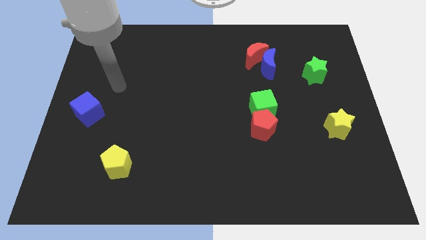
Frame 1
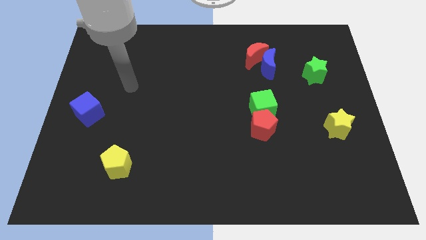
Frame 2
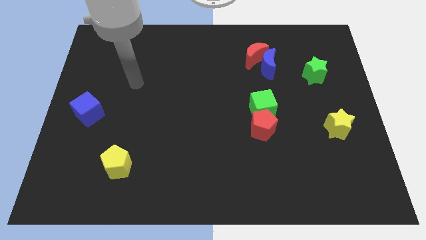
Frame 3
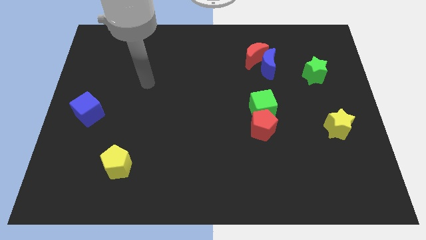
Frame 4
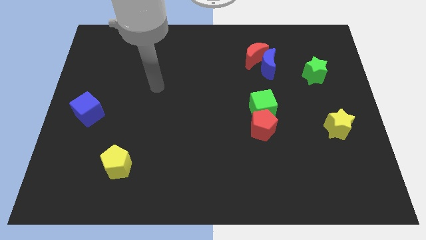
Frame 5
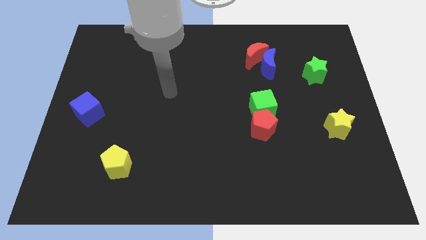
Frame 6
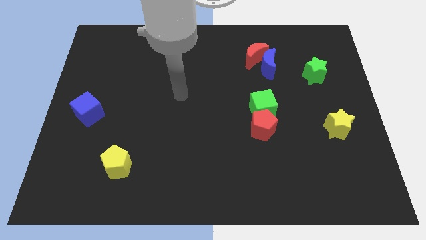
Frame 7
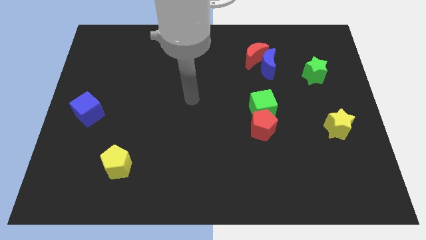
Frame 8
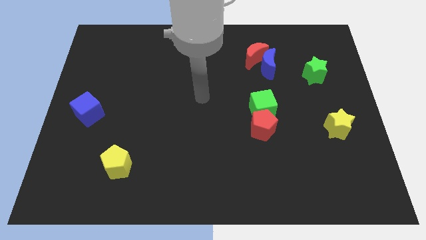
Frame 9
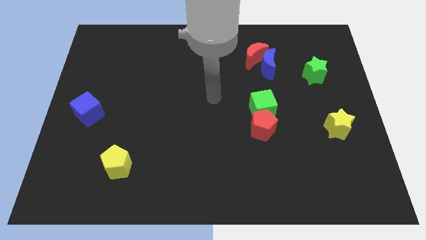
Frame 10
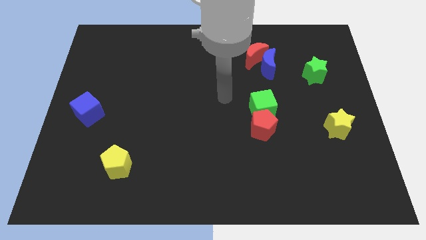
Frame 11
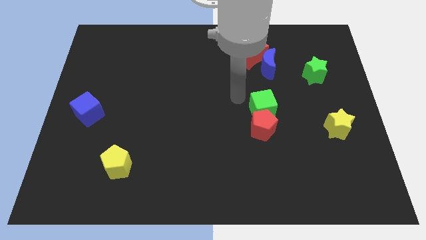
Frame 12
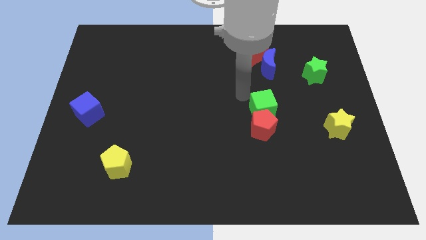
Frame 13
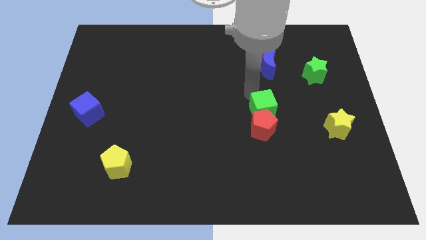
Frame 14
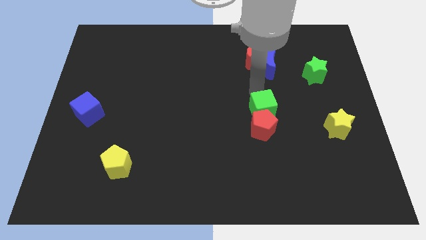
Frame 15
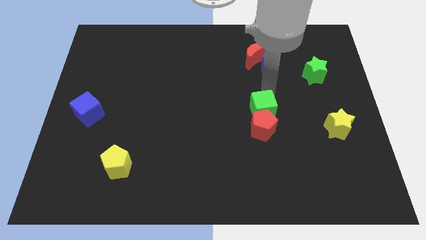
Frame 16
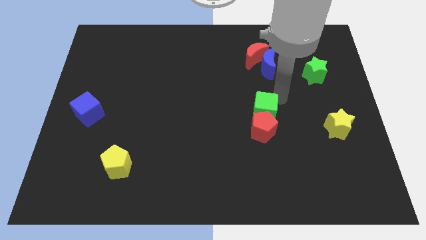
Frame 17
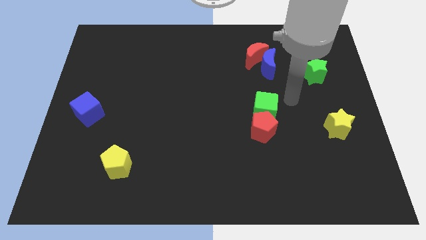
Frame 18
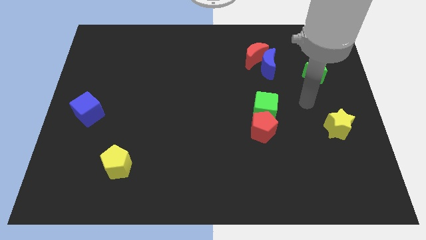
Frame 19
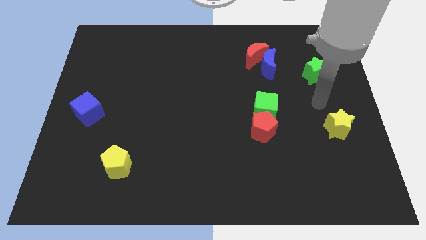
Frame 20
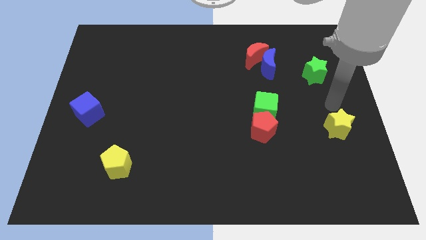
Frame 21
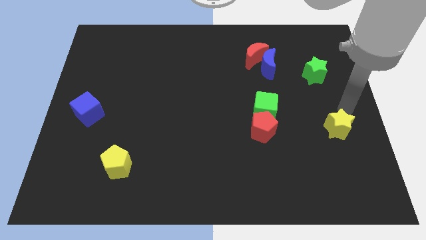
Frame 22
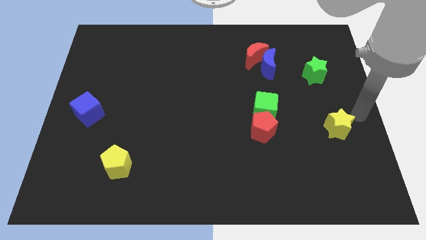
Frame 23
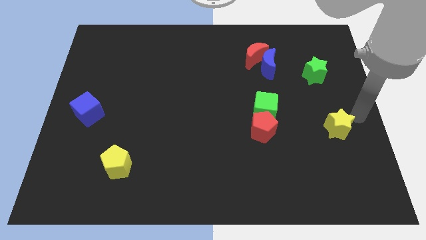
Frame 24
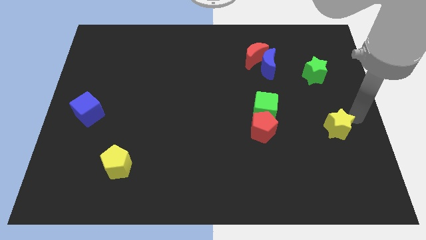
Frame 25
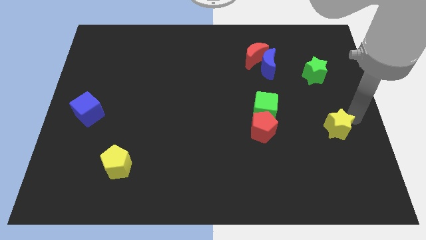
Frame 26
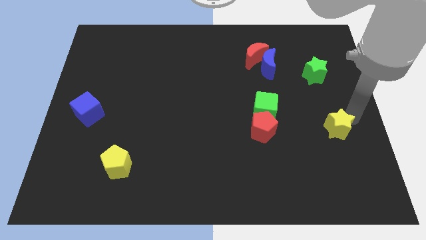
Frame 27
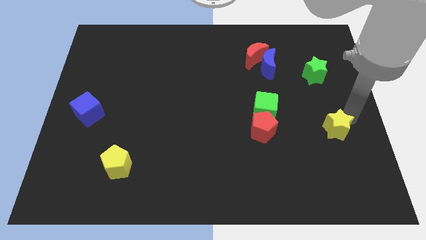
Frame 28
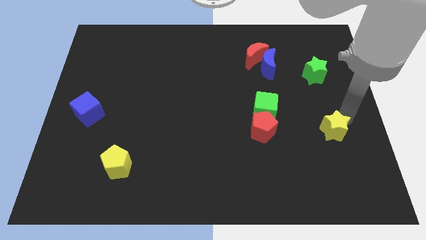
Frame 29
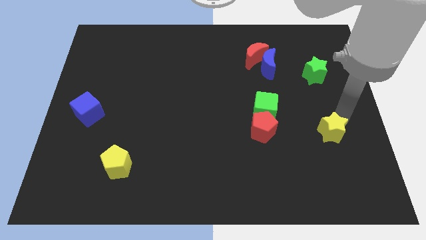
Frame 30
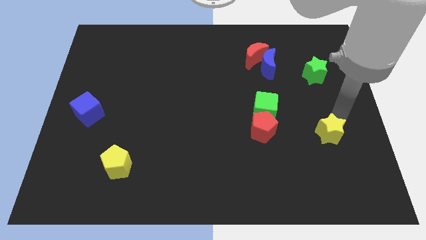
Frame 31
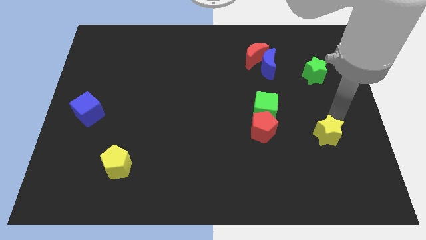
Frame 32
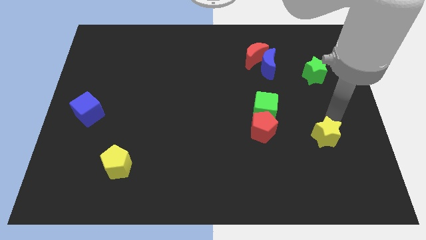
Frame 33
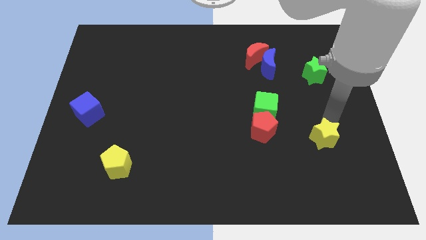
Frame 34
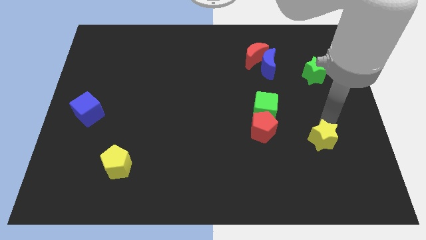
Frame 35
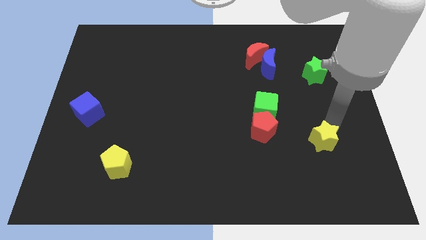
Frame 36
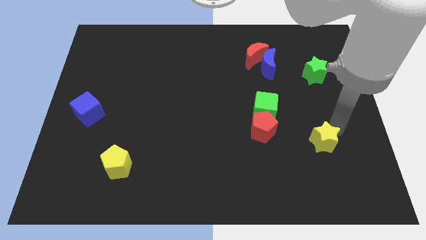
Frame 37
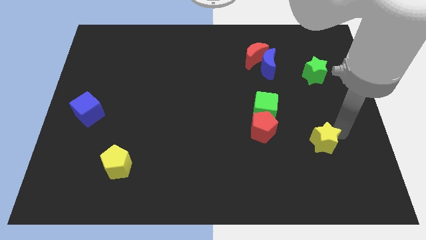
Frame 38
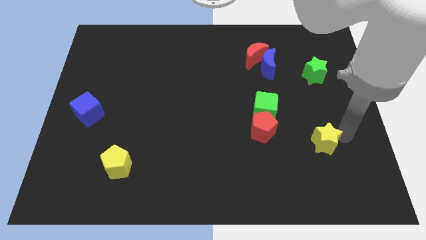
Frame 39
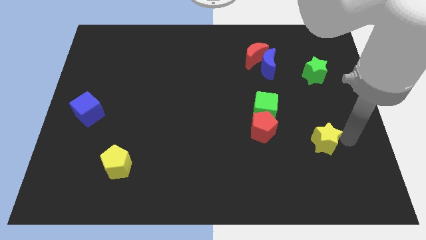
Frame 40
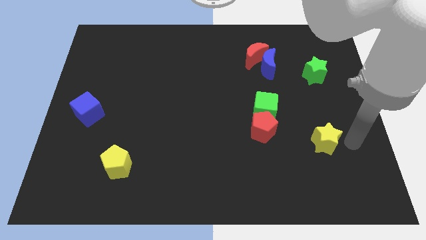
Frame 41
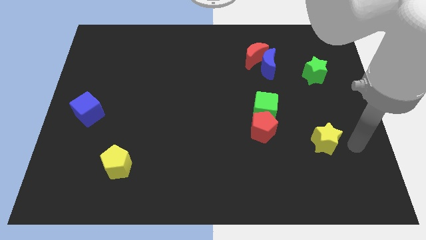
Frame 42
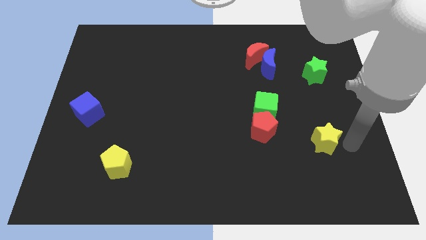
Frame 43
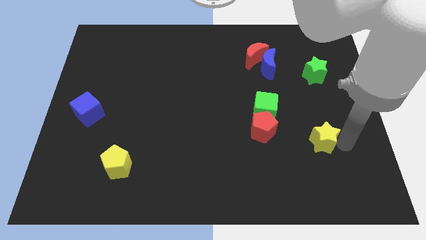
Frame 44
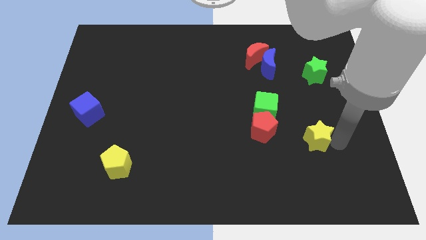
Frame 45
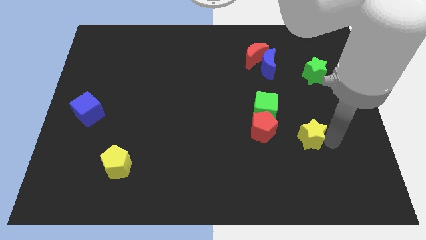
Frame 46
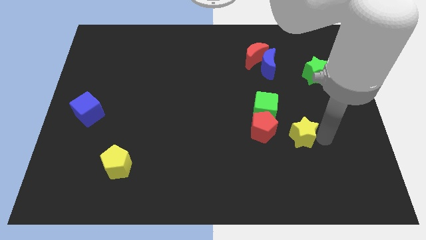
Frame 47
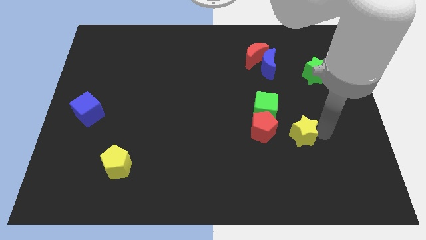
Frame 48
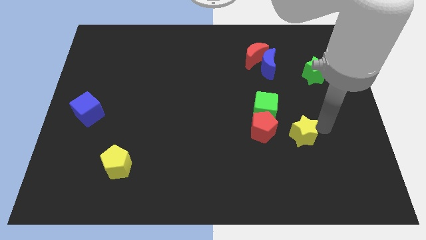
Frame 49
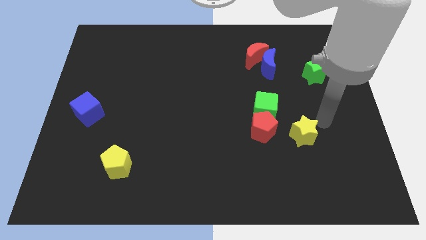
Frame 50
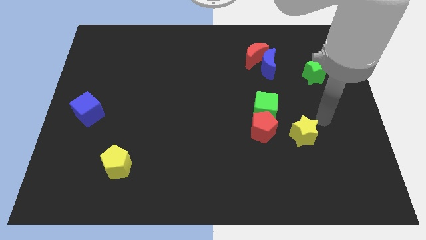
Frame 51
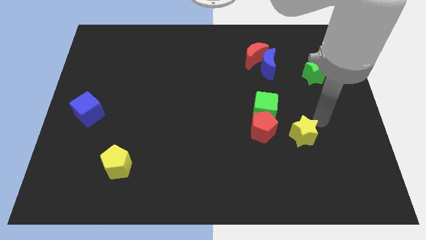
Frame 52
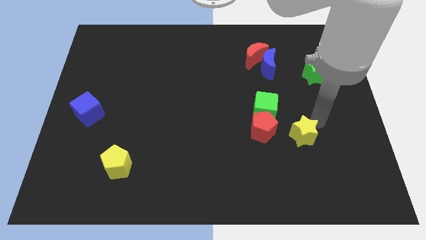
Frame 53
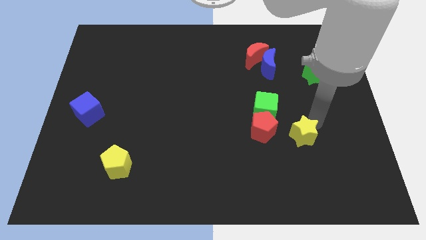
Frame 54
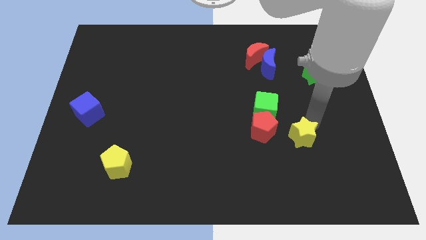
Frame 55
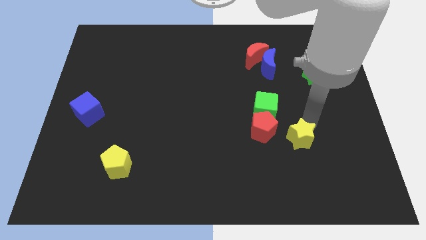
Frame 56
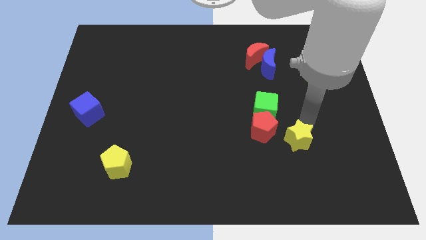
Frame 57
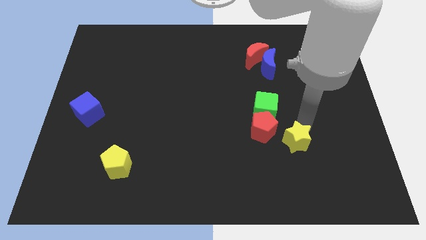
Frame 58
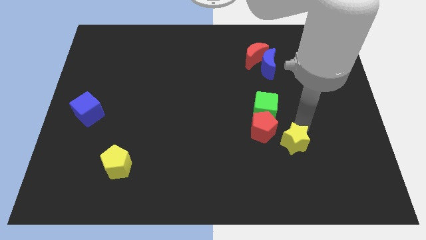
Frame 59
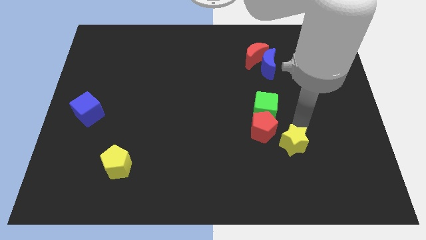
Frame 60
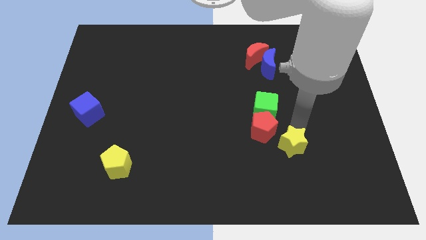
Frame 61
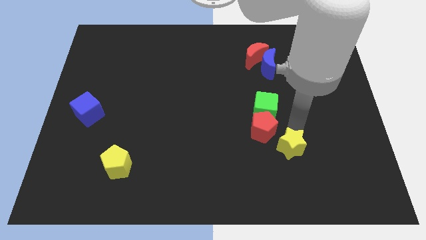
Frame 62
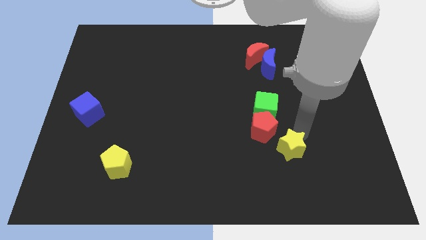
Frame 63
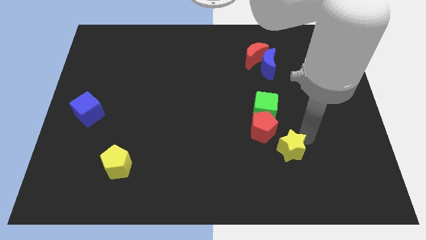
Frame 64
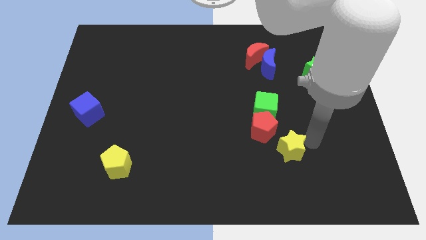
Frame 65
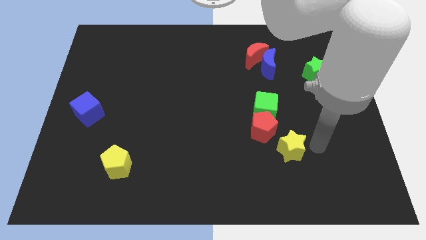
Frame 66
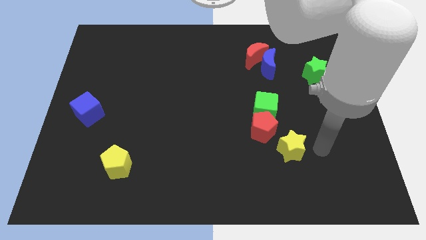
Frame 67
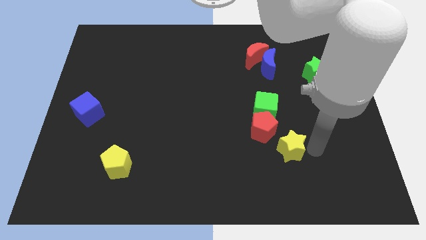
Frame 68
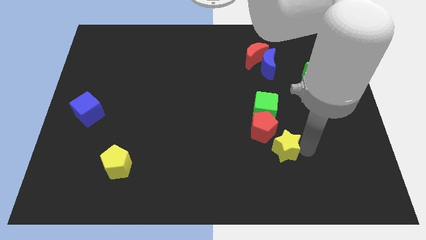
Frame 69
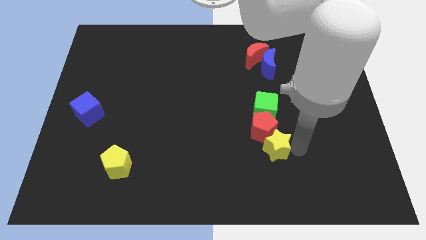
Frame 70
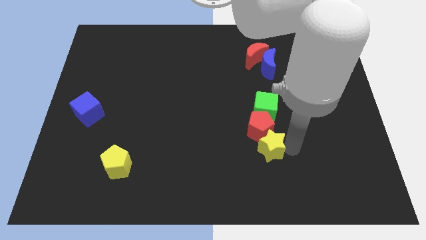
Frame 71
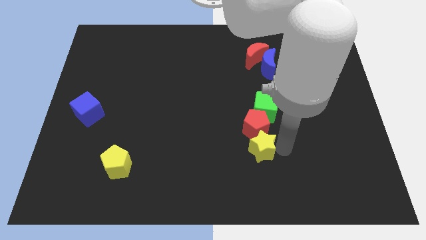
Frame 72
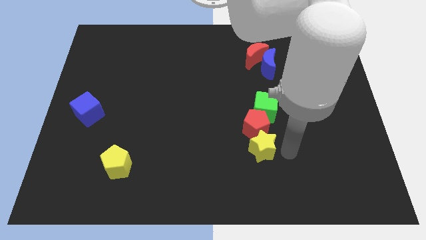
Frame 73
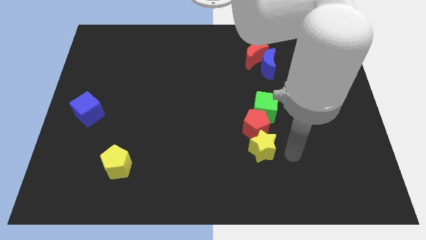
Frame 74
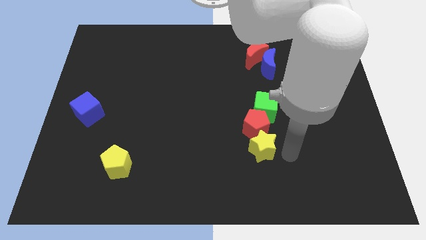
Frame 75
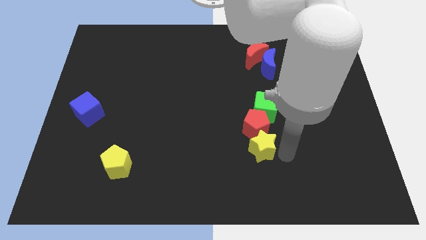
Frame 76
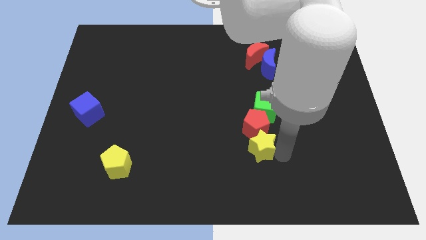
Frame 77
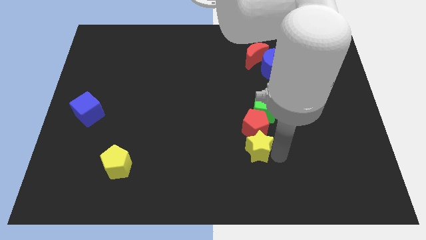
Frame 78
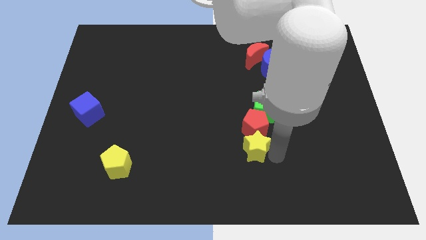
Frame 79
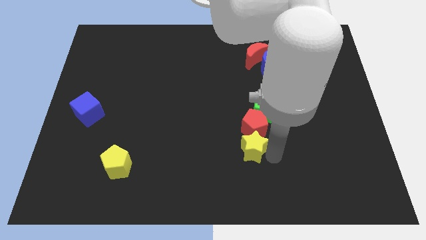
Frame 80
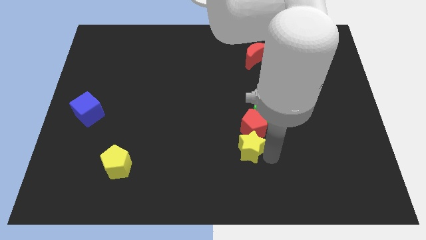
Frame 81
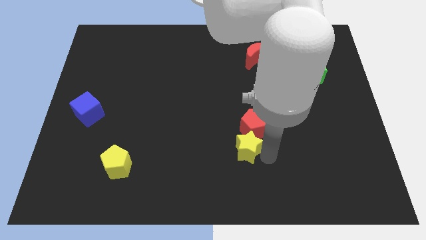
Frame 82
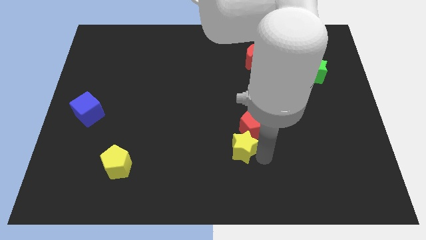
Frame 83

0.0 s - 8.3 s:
move the yellow star to the left
